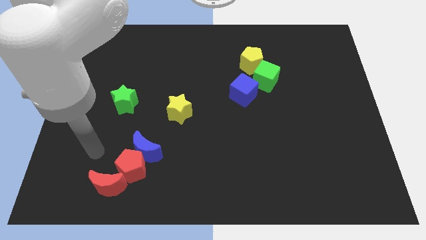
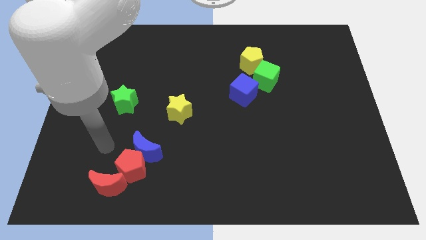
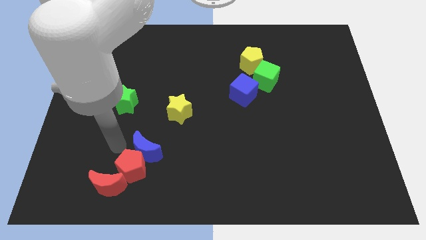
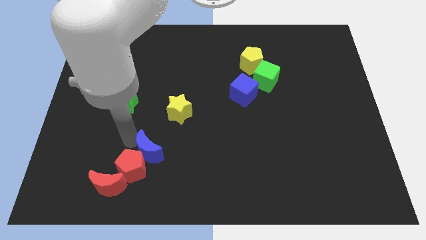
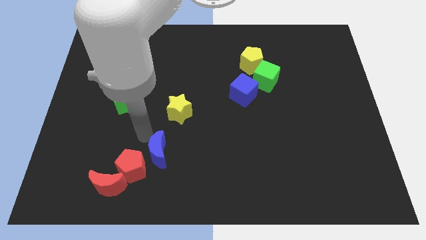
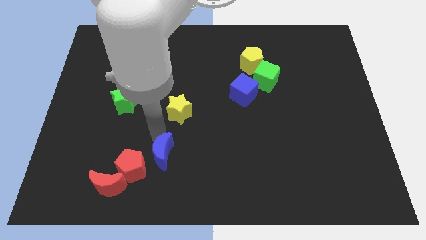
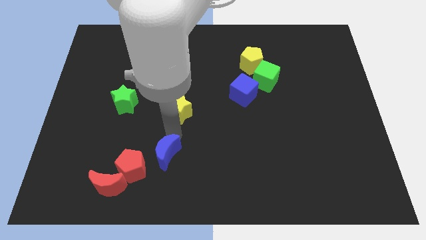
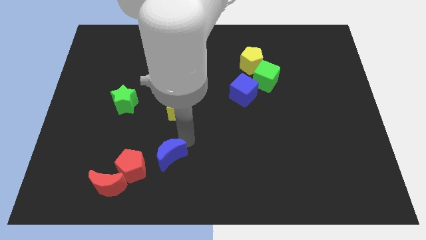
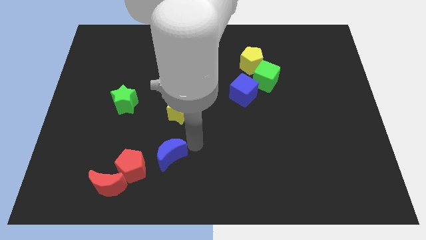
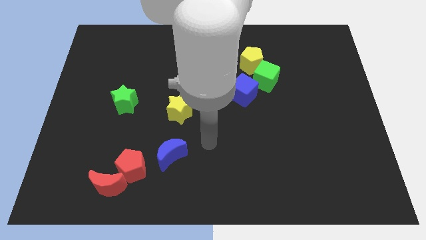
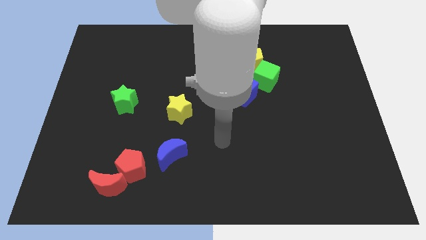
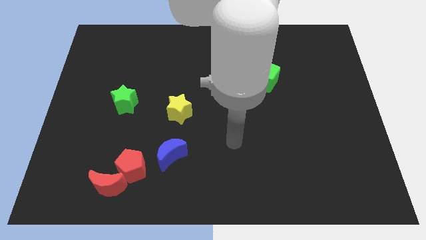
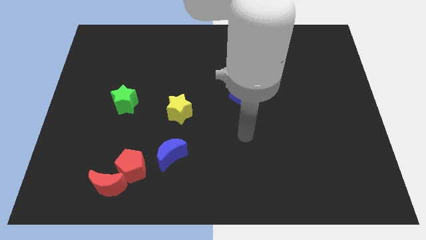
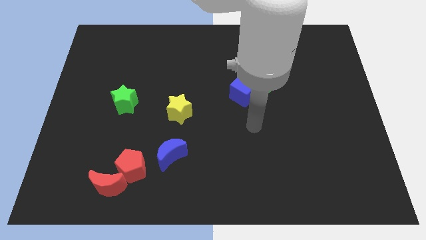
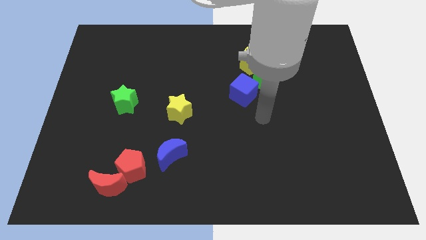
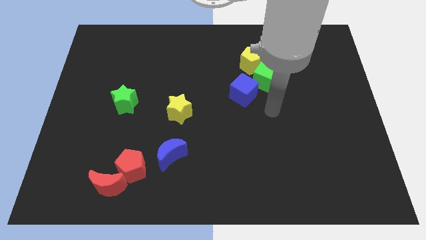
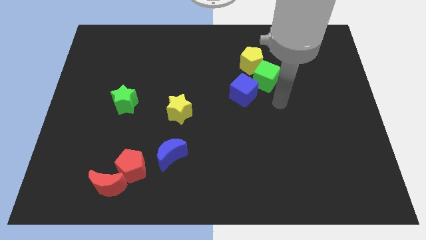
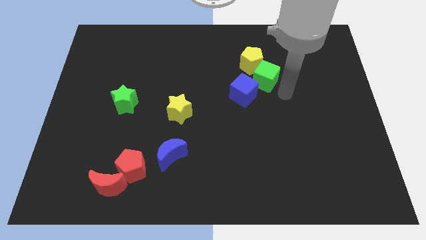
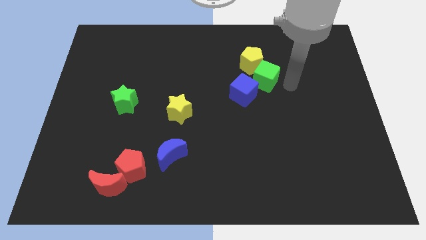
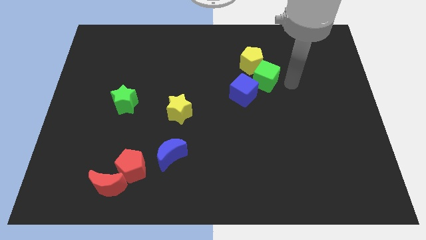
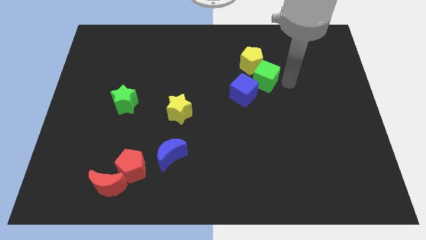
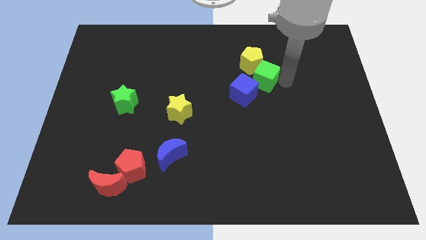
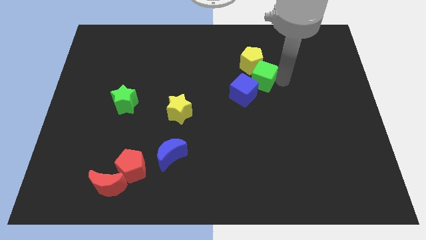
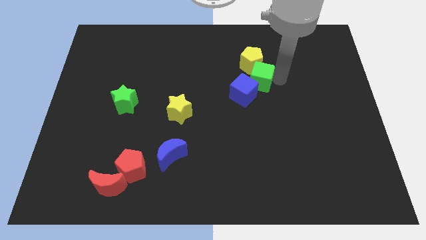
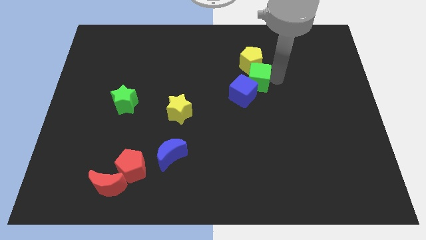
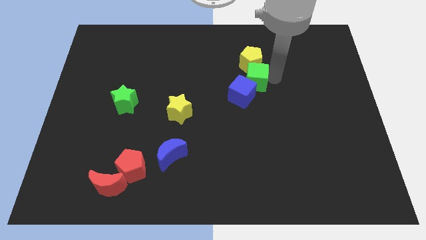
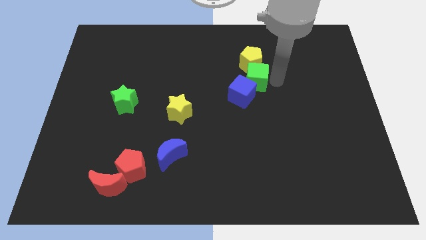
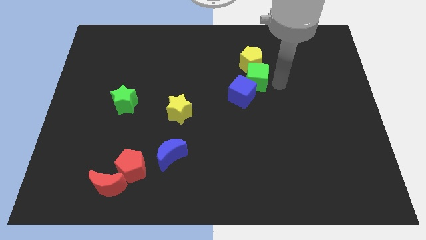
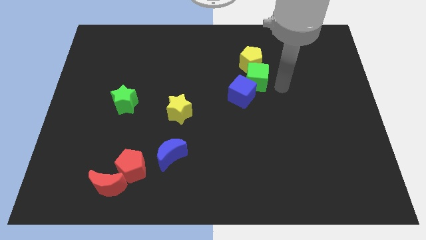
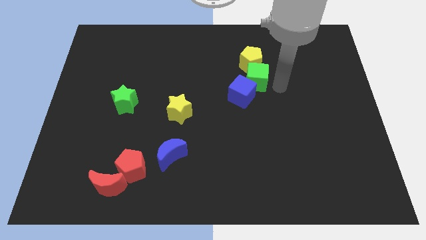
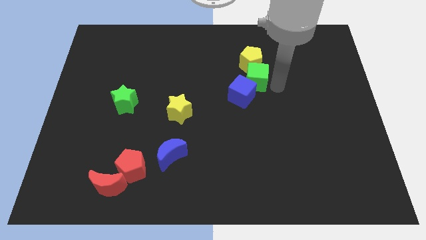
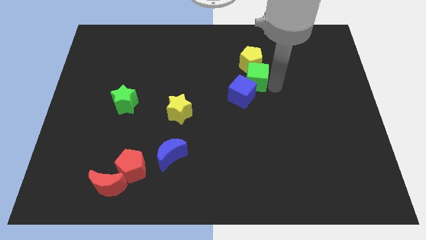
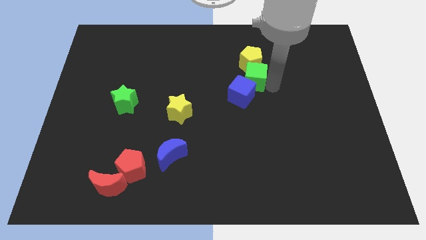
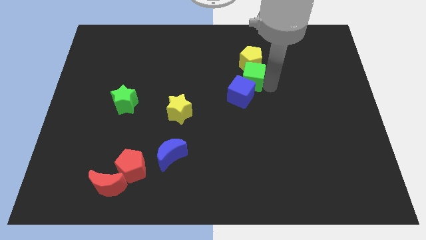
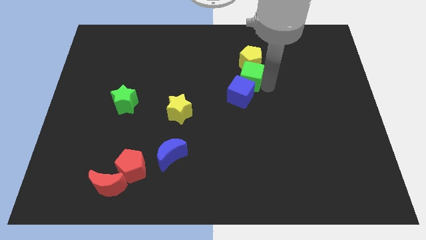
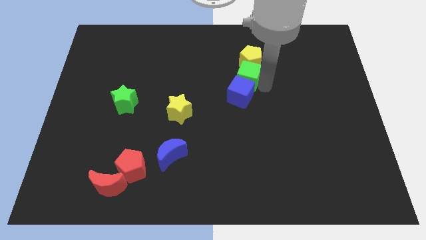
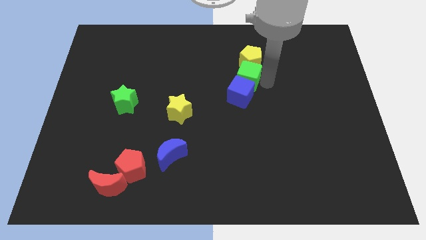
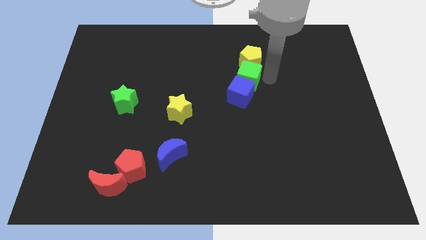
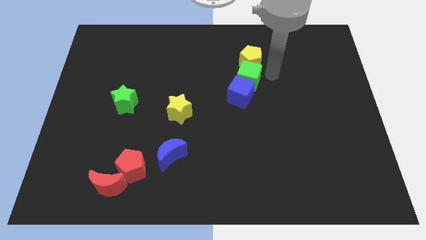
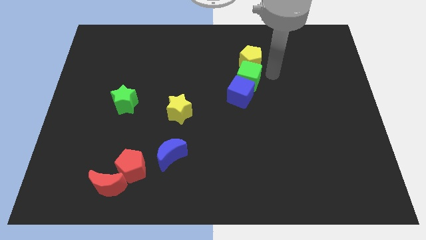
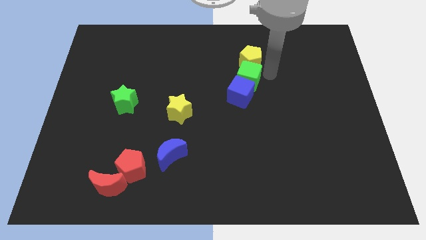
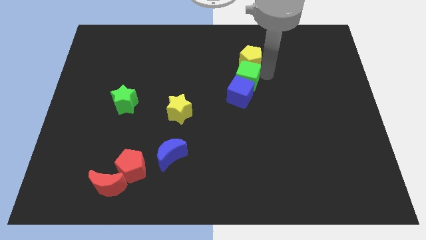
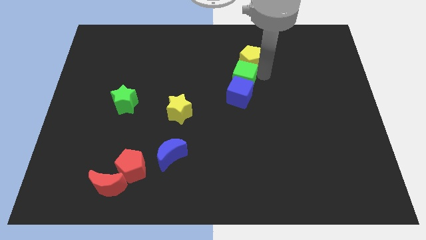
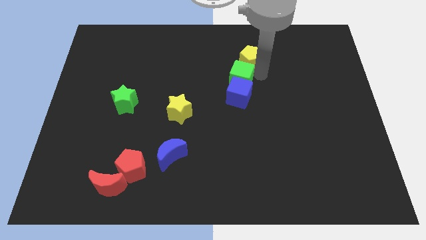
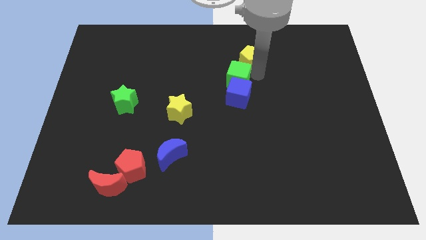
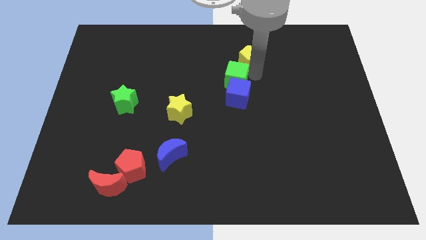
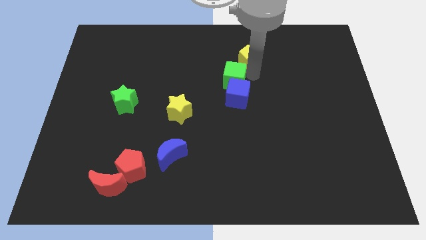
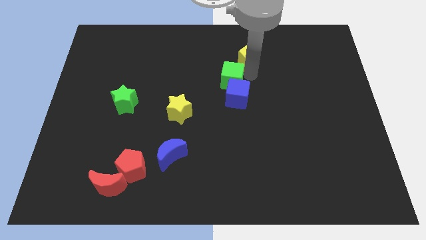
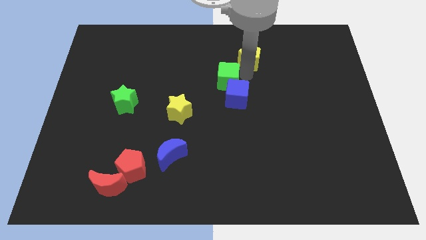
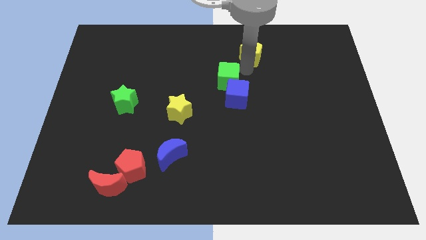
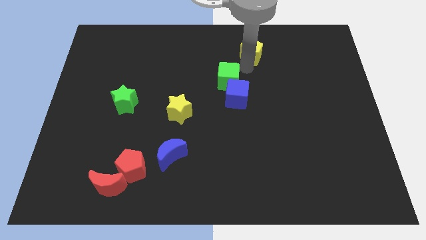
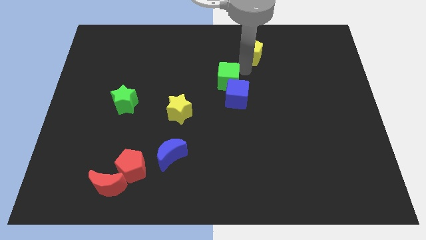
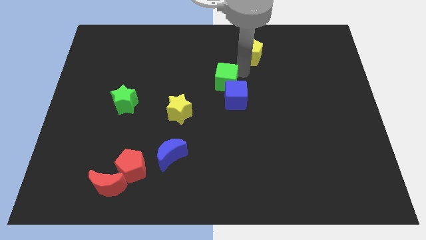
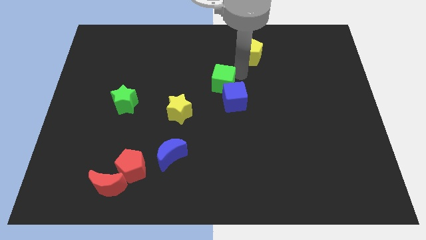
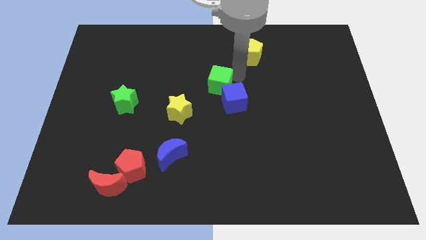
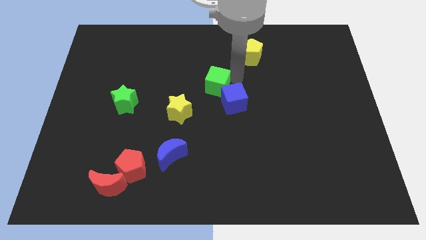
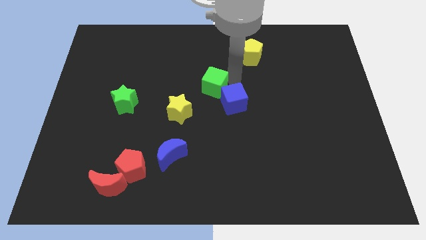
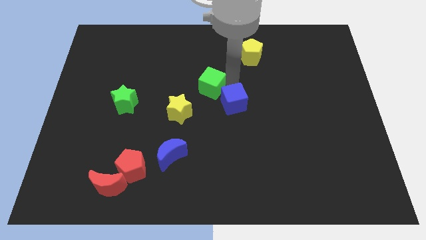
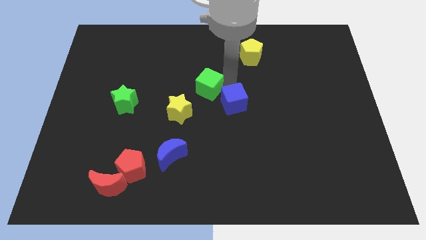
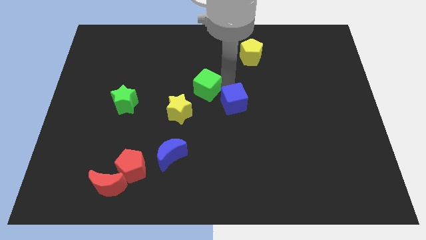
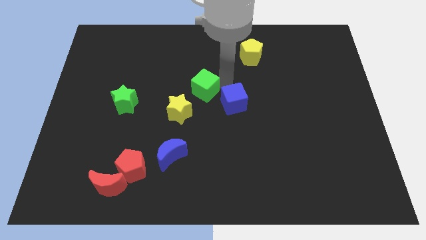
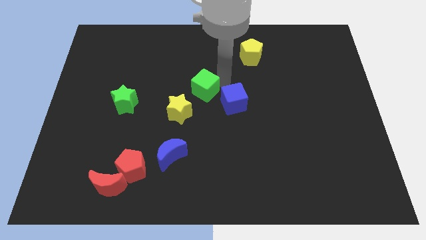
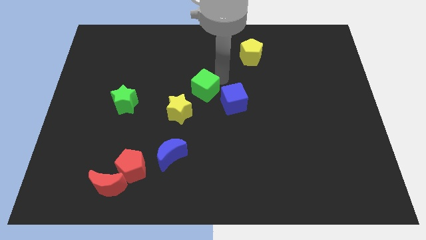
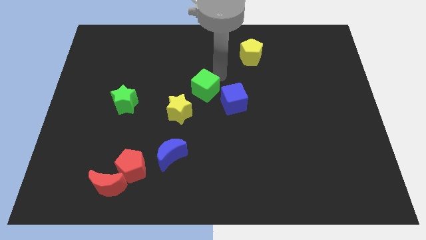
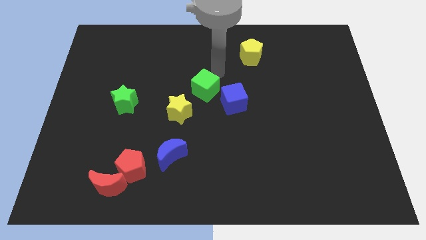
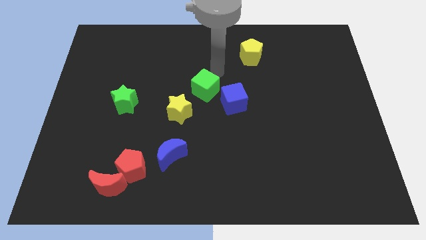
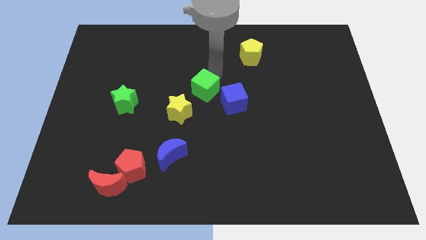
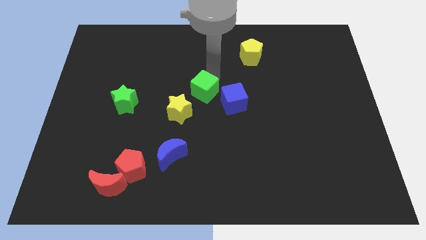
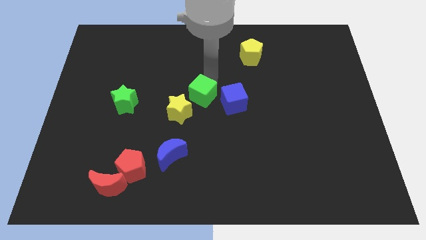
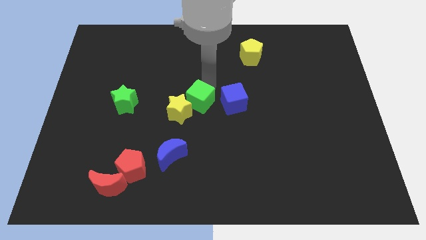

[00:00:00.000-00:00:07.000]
push the green cube to the yellow star

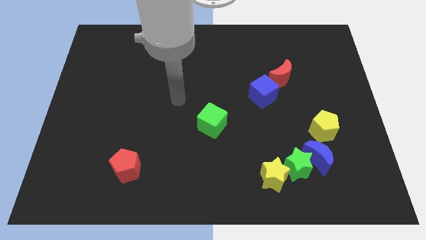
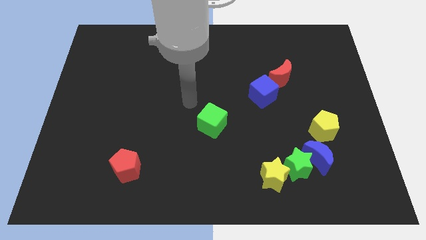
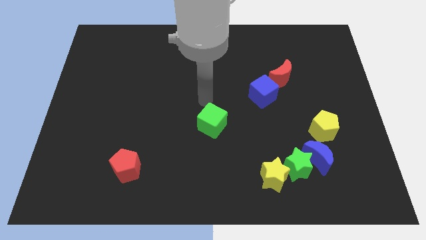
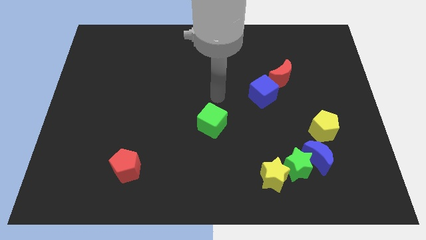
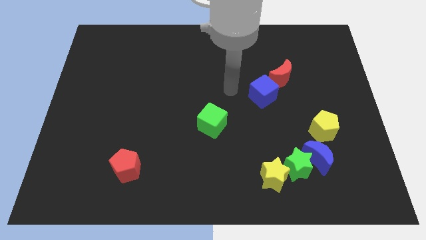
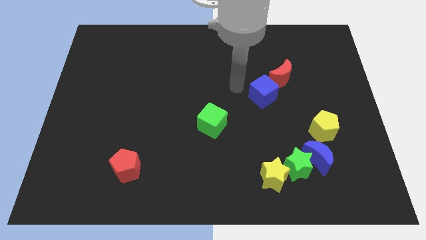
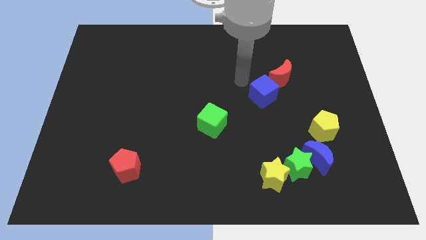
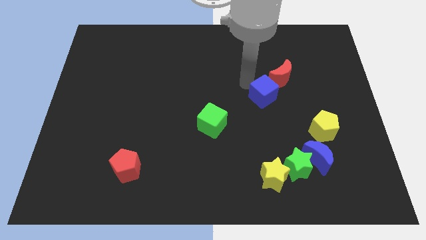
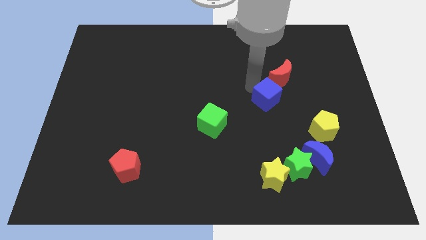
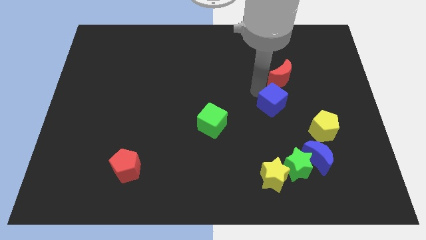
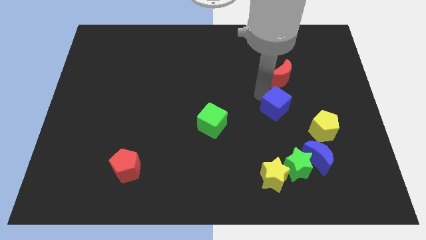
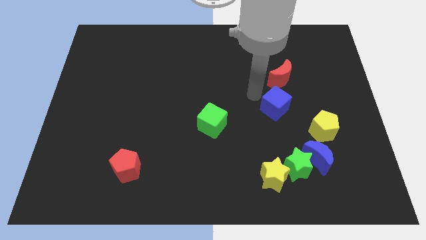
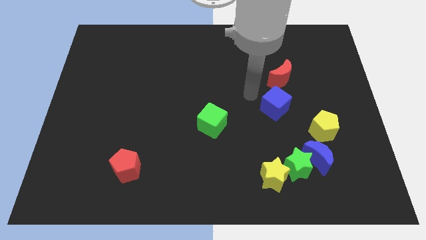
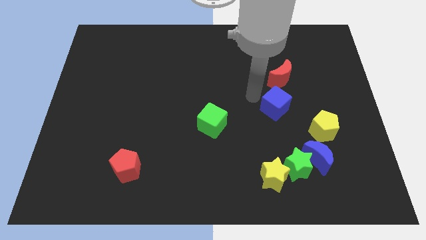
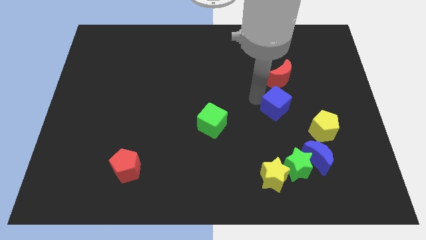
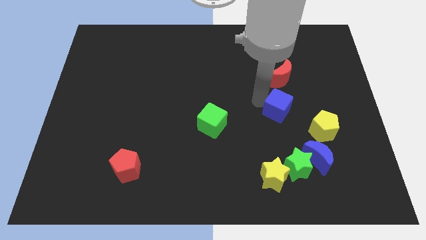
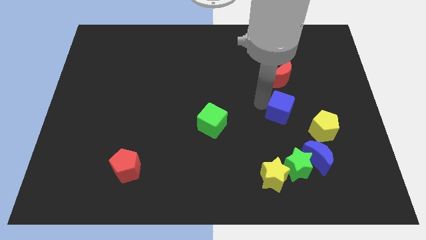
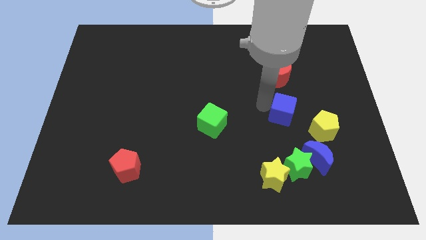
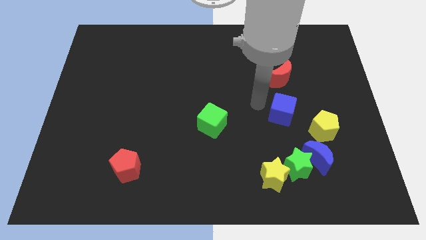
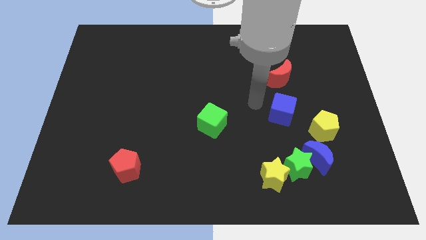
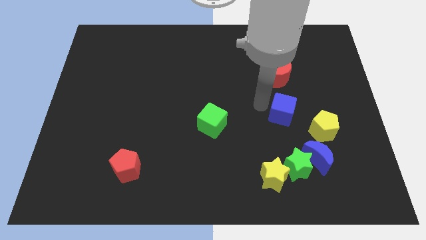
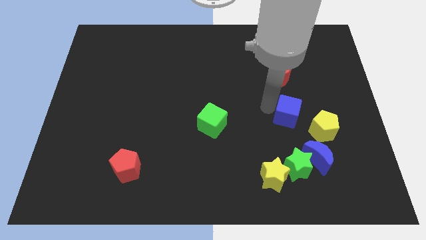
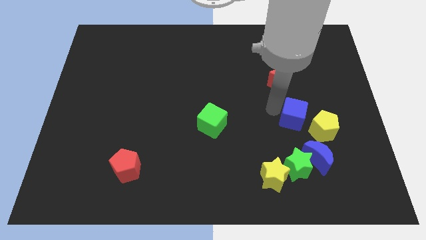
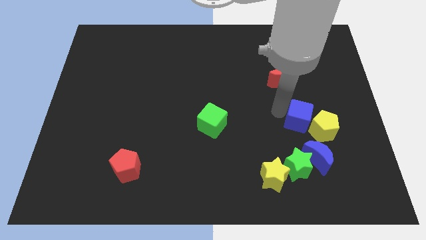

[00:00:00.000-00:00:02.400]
push the blue cube close to the yellow pentagon
